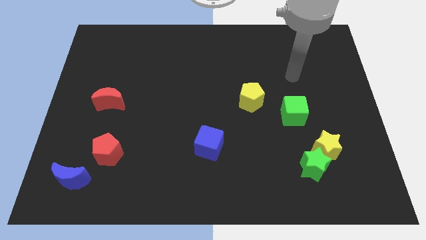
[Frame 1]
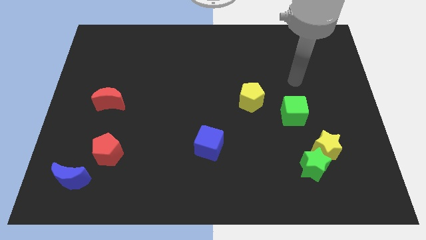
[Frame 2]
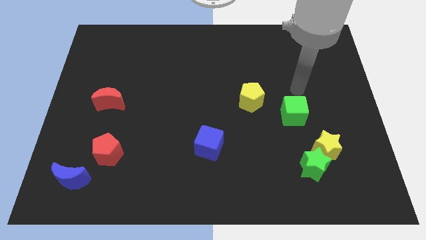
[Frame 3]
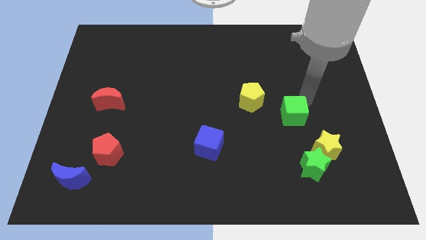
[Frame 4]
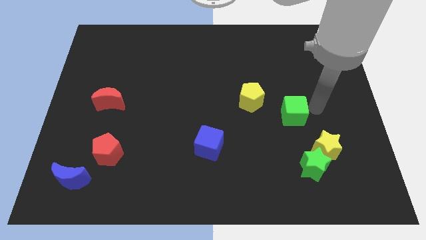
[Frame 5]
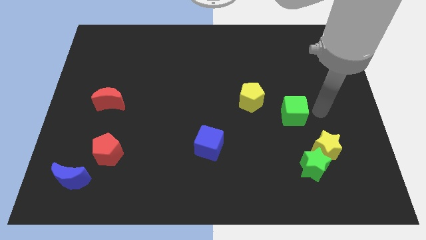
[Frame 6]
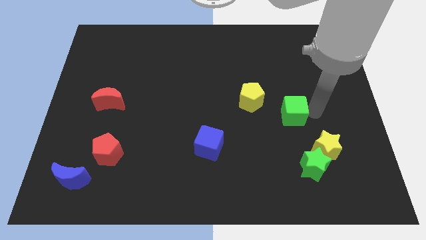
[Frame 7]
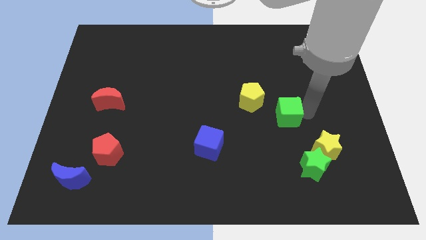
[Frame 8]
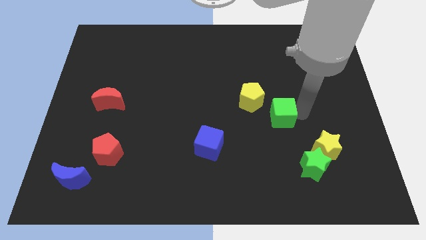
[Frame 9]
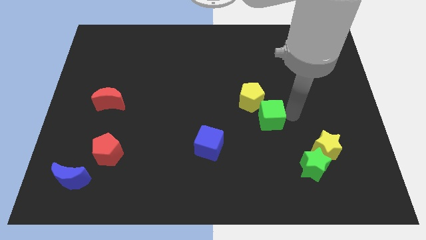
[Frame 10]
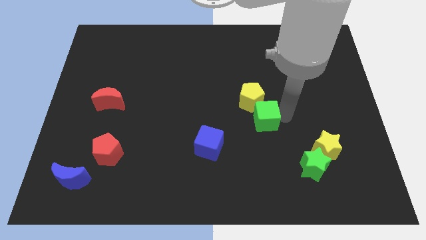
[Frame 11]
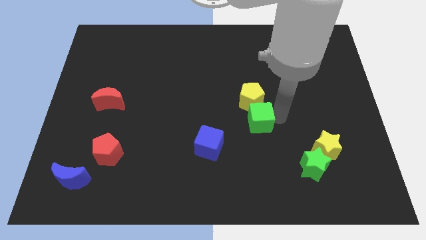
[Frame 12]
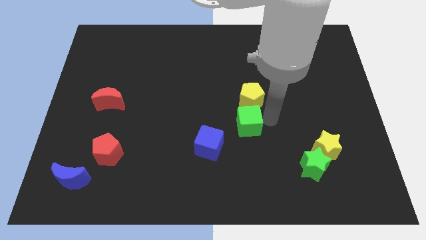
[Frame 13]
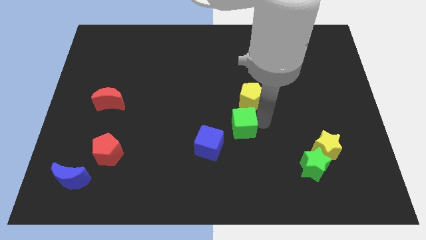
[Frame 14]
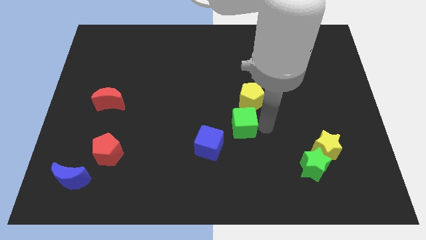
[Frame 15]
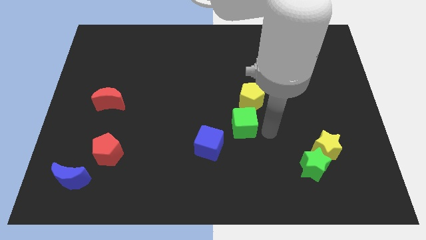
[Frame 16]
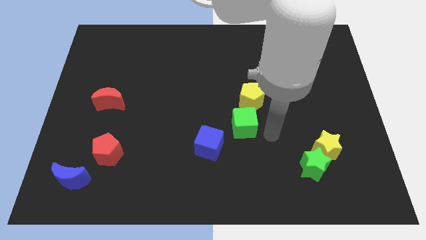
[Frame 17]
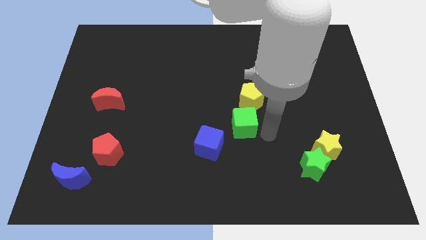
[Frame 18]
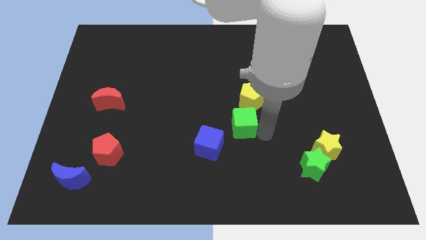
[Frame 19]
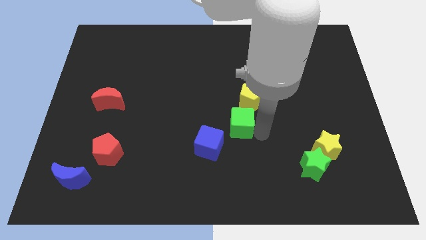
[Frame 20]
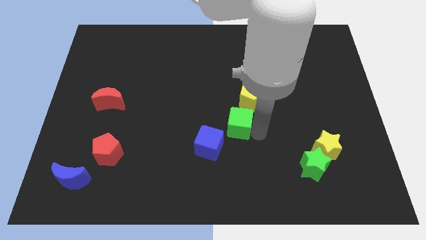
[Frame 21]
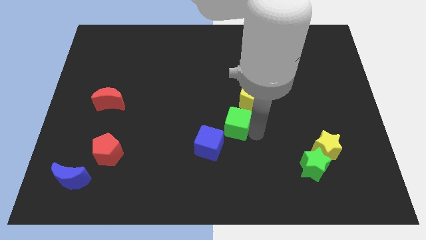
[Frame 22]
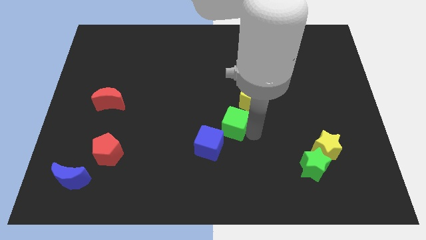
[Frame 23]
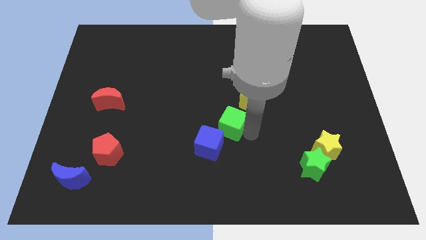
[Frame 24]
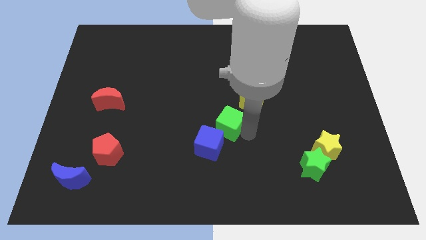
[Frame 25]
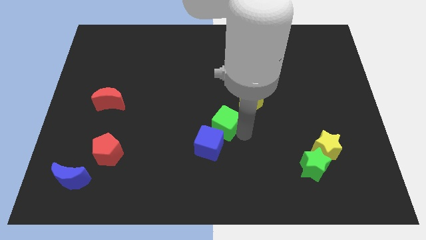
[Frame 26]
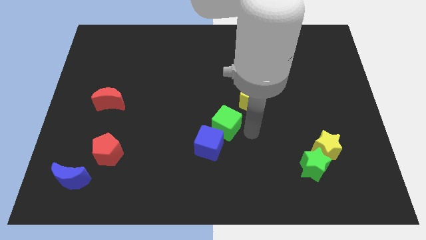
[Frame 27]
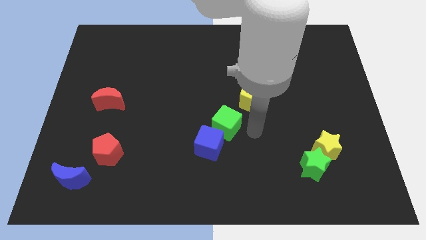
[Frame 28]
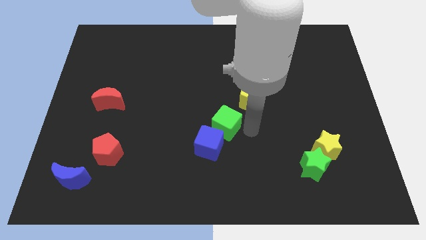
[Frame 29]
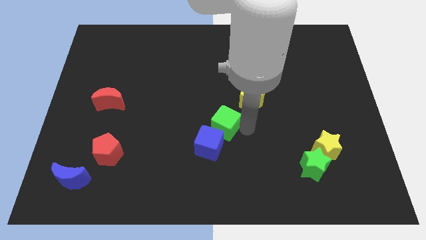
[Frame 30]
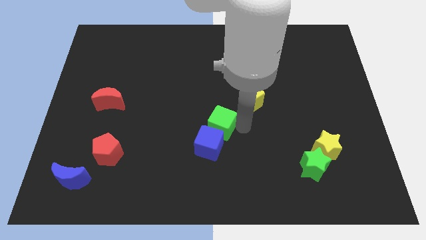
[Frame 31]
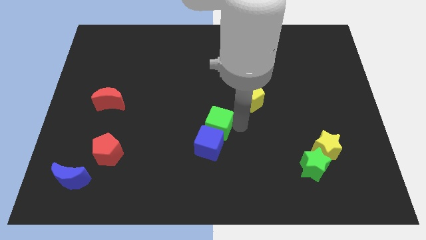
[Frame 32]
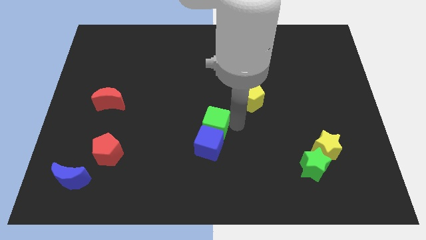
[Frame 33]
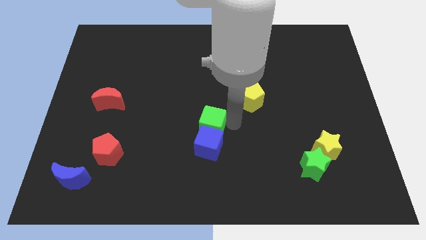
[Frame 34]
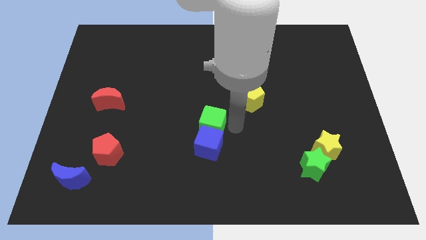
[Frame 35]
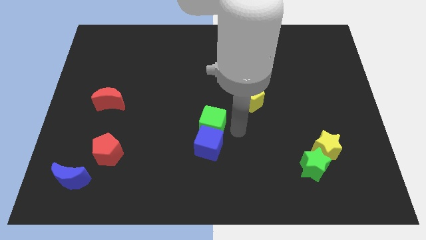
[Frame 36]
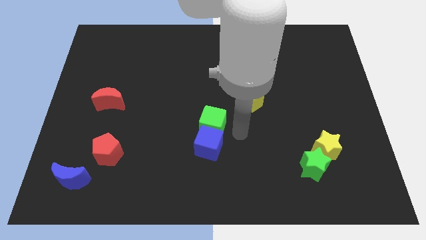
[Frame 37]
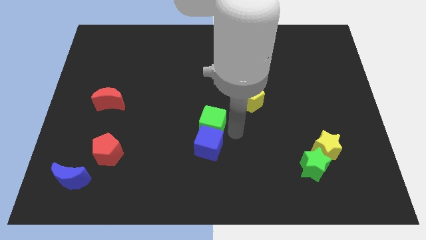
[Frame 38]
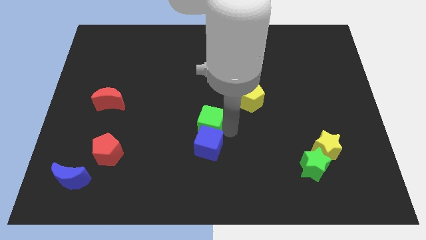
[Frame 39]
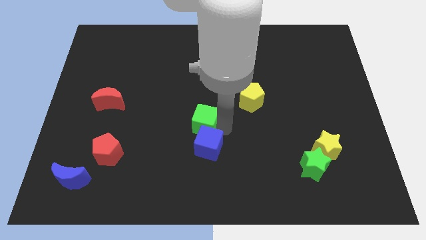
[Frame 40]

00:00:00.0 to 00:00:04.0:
move the green cube to the left

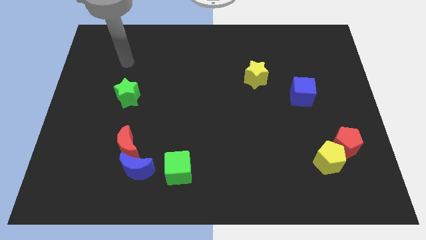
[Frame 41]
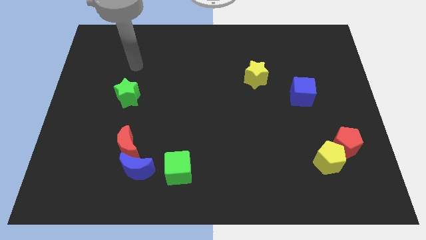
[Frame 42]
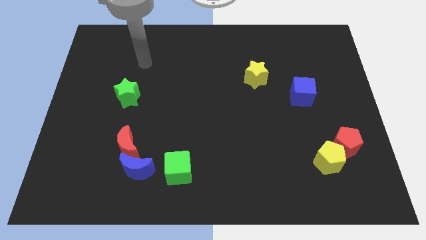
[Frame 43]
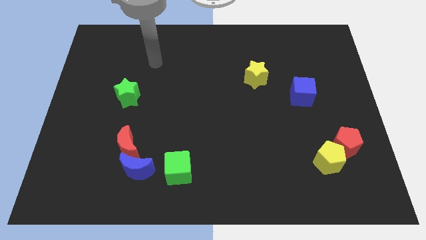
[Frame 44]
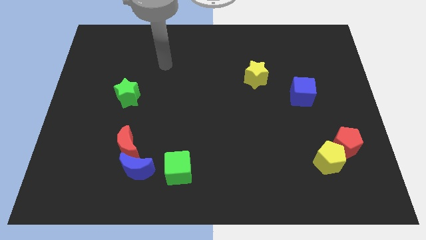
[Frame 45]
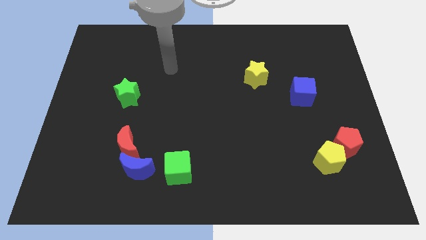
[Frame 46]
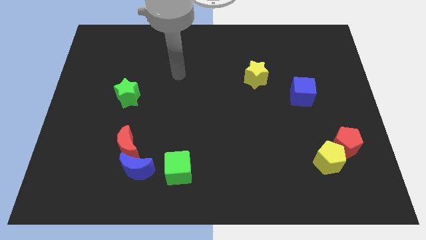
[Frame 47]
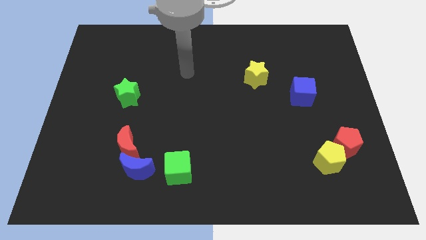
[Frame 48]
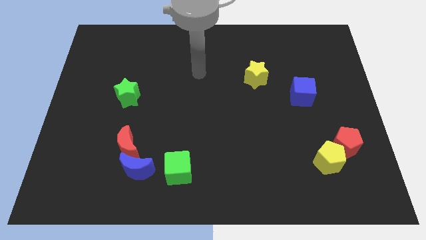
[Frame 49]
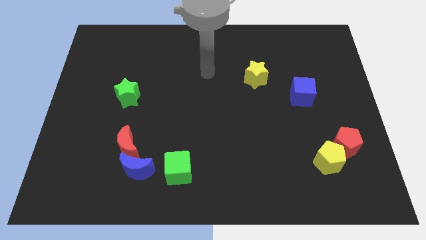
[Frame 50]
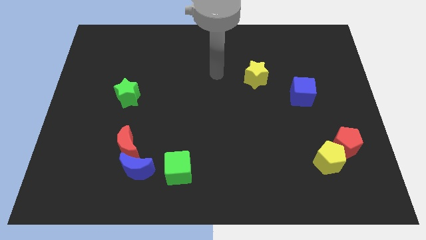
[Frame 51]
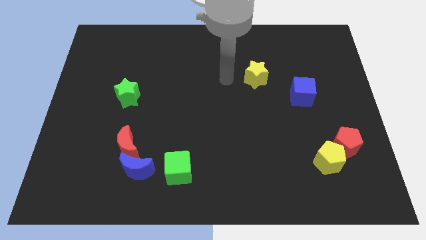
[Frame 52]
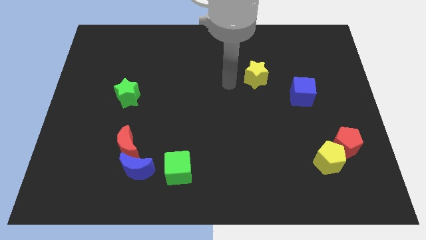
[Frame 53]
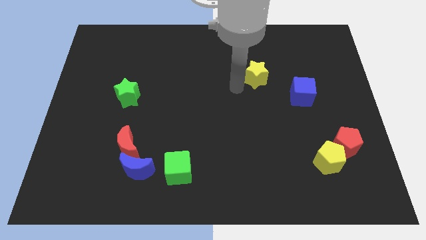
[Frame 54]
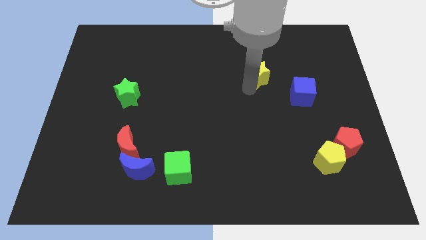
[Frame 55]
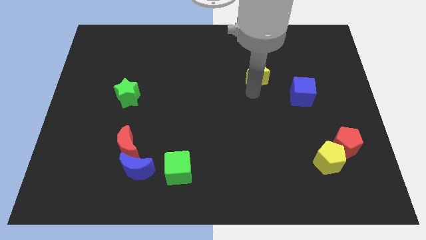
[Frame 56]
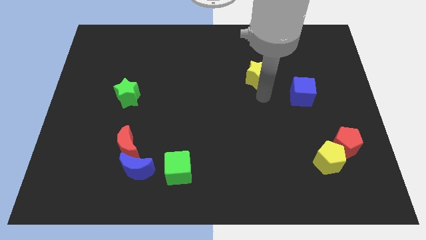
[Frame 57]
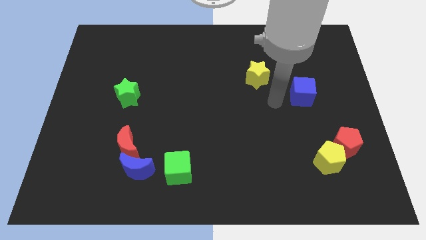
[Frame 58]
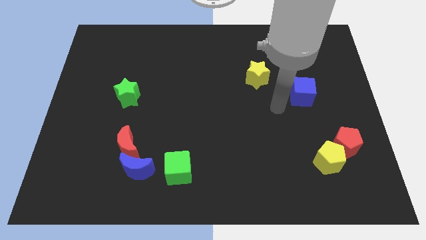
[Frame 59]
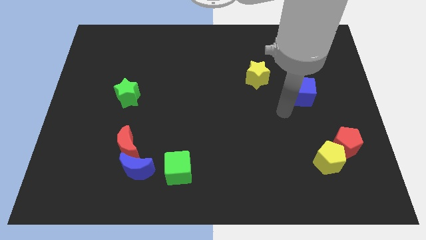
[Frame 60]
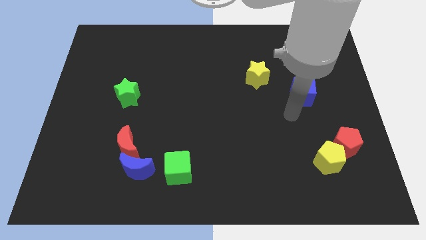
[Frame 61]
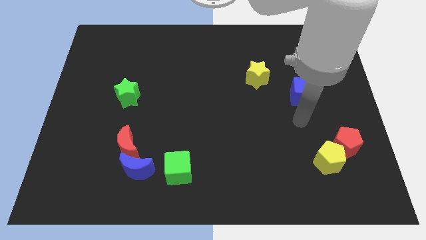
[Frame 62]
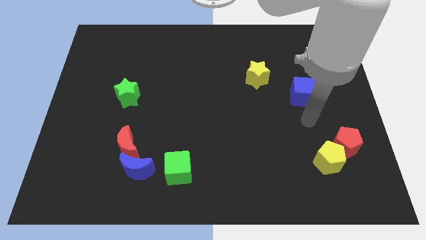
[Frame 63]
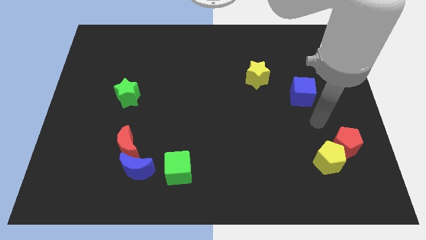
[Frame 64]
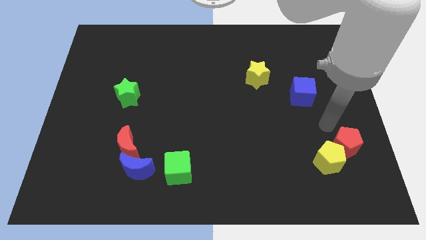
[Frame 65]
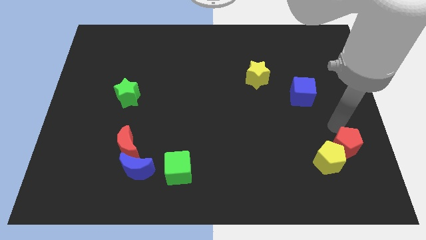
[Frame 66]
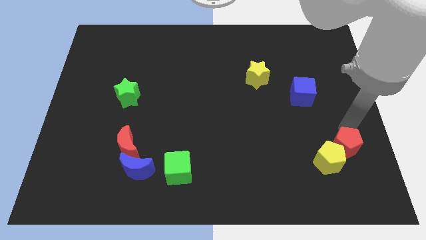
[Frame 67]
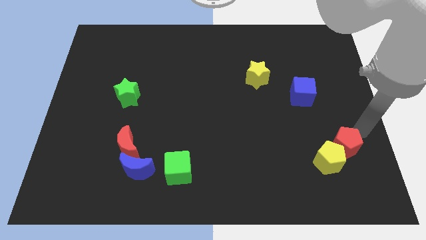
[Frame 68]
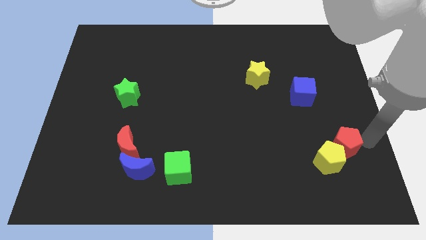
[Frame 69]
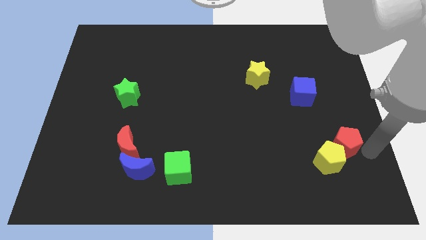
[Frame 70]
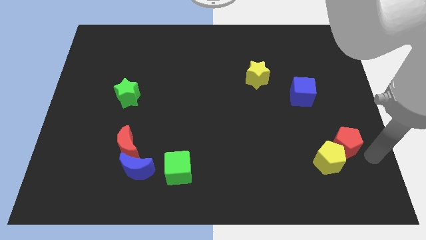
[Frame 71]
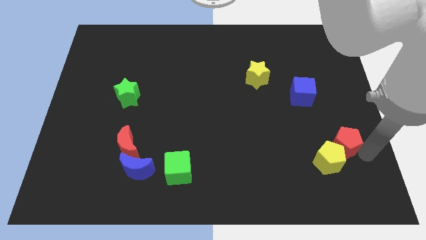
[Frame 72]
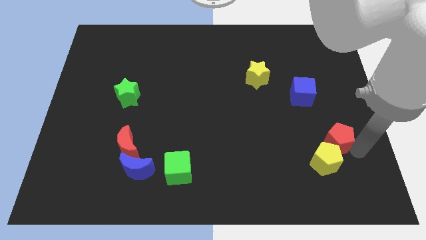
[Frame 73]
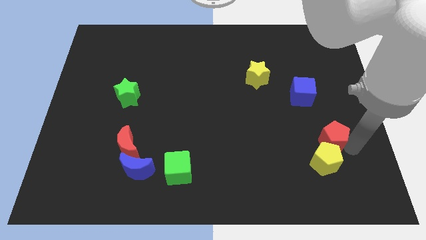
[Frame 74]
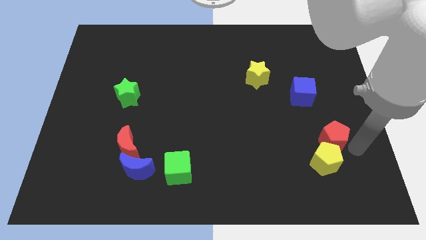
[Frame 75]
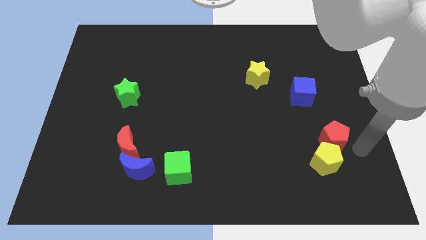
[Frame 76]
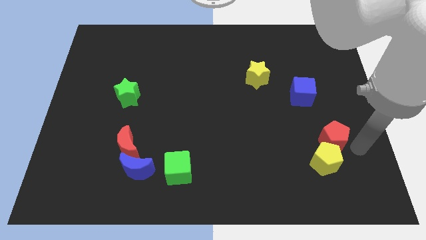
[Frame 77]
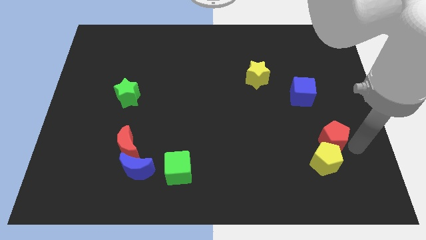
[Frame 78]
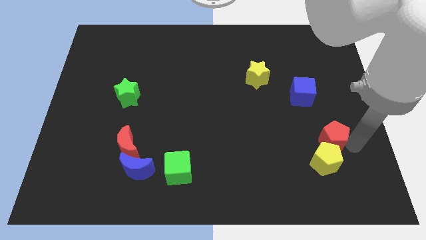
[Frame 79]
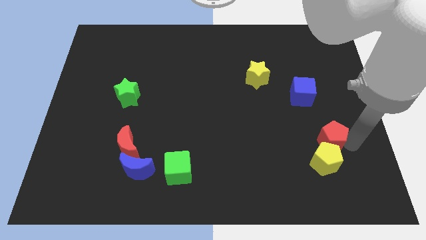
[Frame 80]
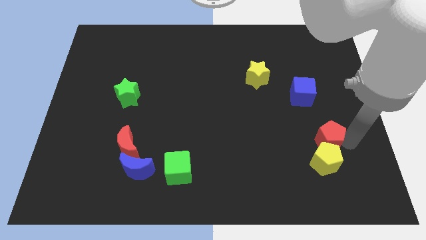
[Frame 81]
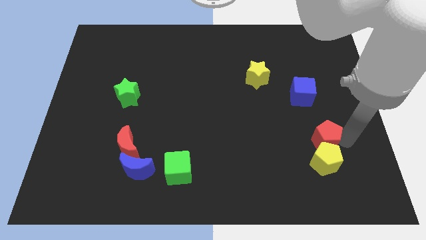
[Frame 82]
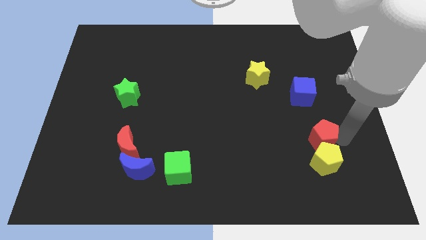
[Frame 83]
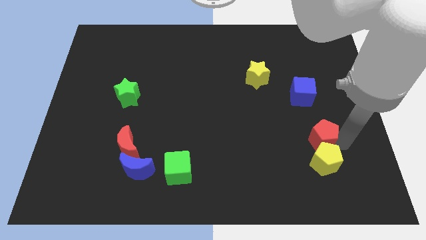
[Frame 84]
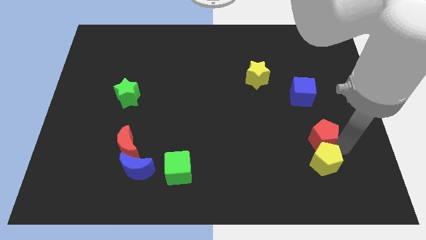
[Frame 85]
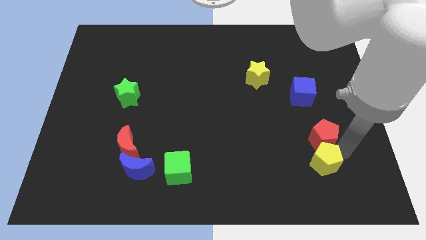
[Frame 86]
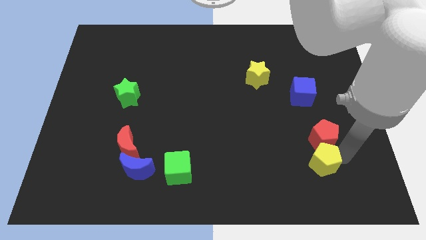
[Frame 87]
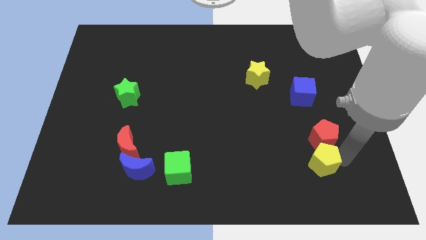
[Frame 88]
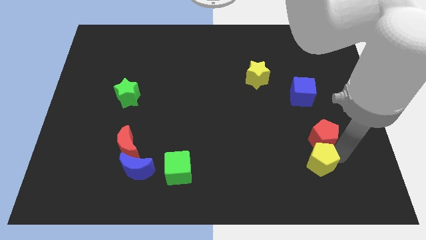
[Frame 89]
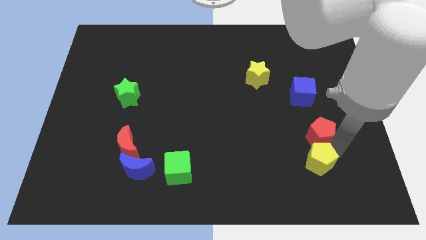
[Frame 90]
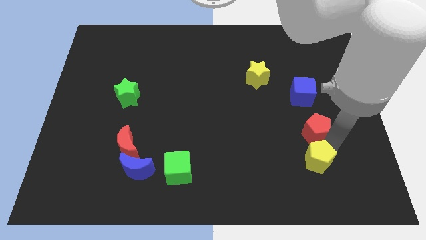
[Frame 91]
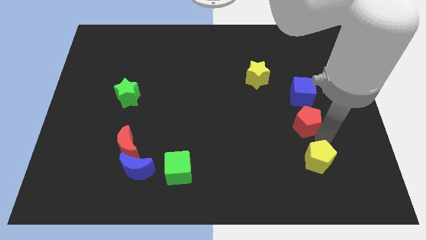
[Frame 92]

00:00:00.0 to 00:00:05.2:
move the red pentagon somewhat up and to the left
